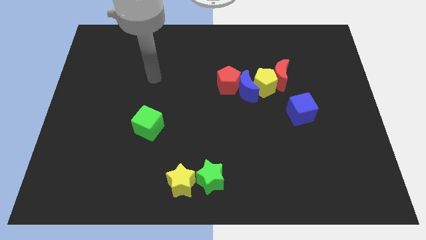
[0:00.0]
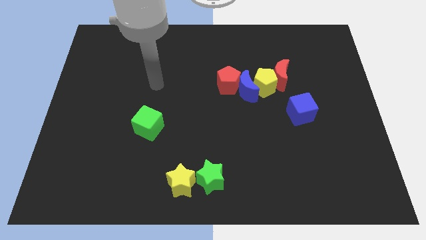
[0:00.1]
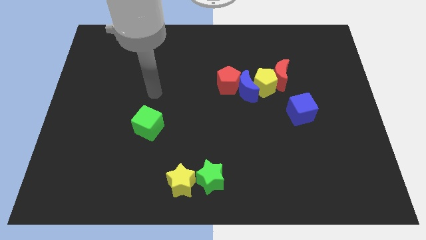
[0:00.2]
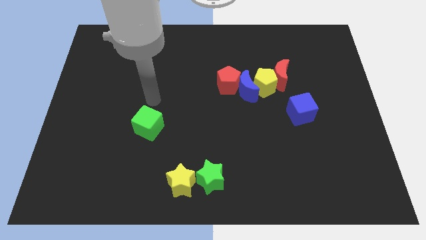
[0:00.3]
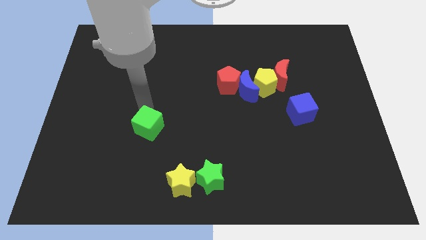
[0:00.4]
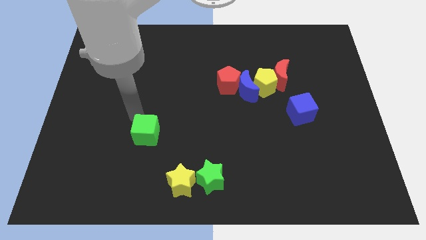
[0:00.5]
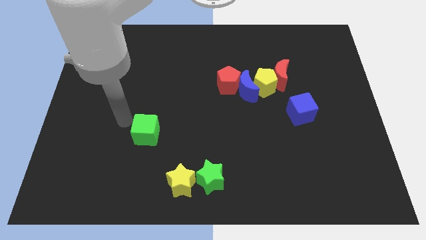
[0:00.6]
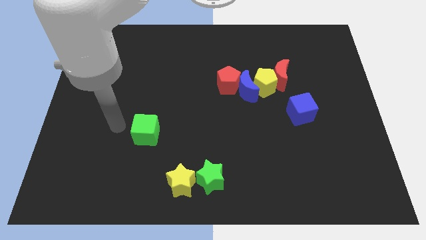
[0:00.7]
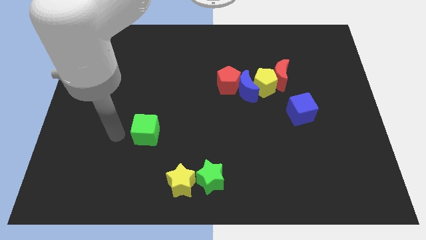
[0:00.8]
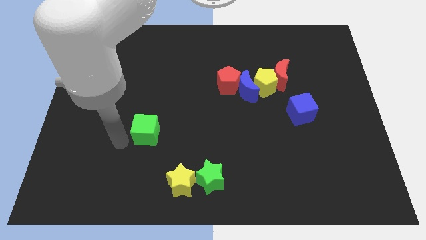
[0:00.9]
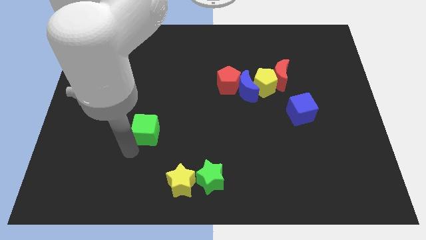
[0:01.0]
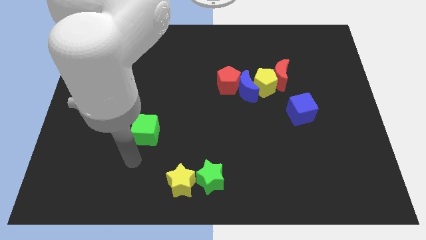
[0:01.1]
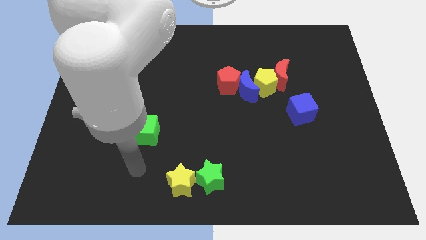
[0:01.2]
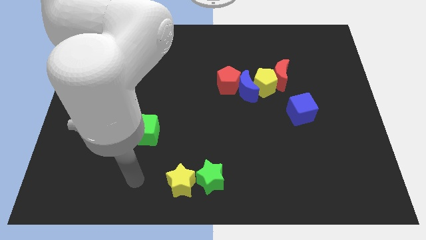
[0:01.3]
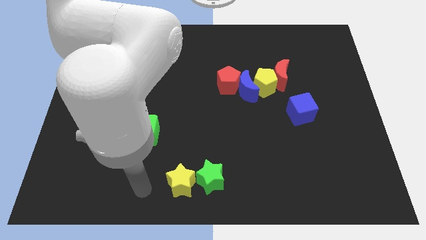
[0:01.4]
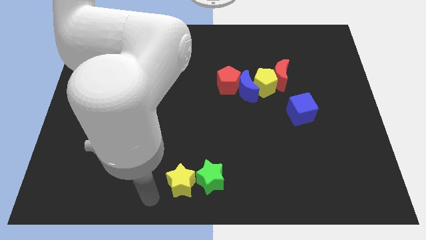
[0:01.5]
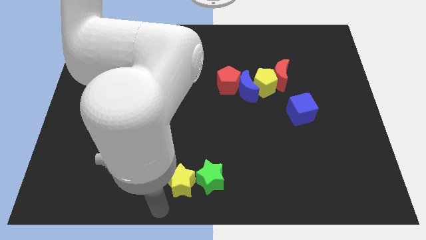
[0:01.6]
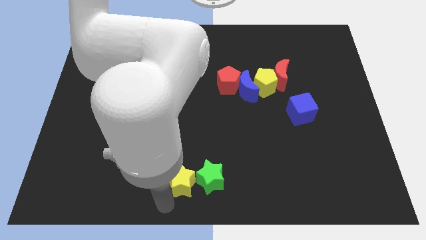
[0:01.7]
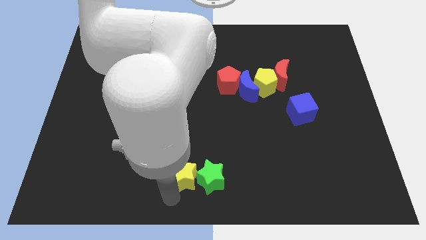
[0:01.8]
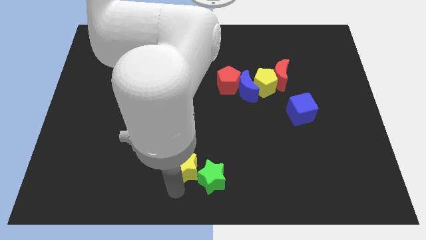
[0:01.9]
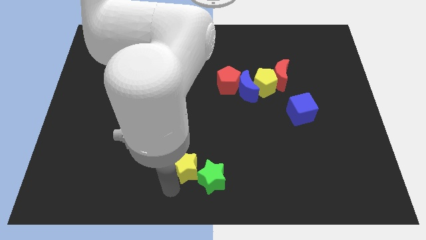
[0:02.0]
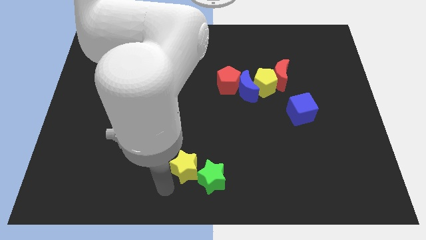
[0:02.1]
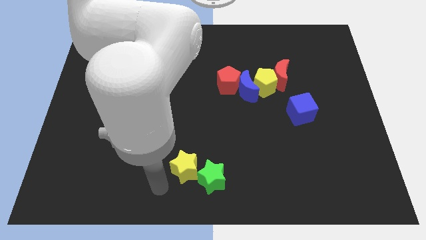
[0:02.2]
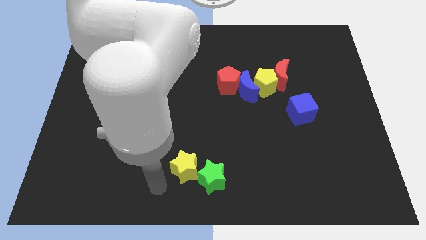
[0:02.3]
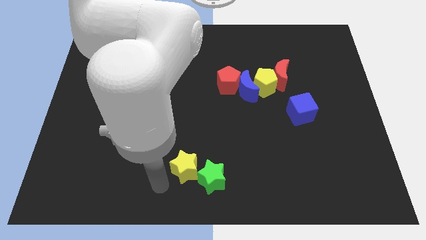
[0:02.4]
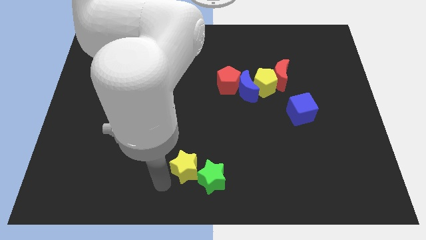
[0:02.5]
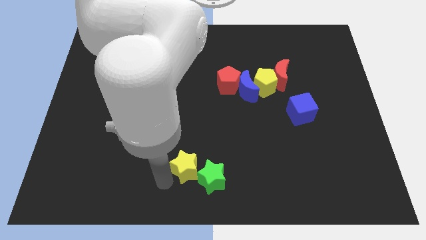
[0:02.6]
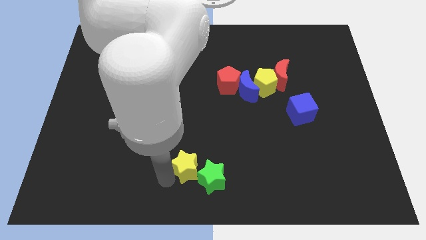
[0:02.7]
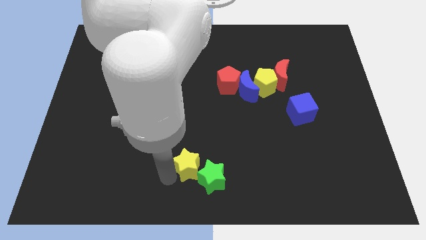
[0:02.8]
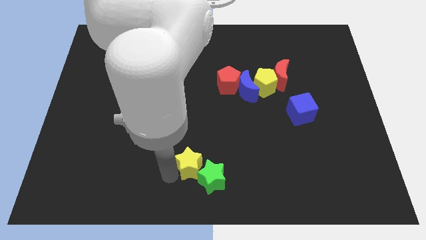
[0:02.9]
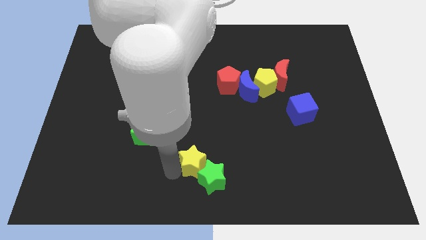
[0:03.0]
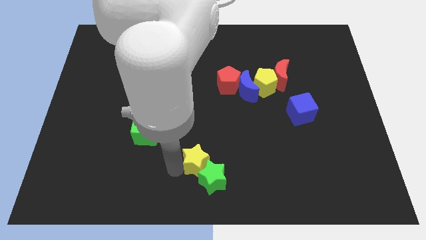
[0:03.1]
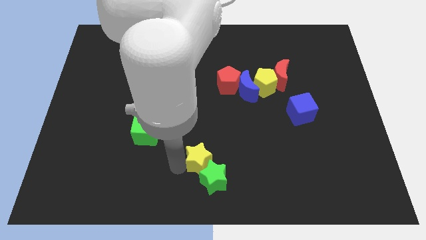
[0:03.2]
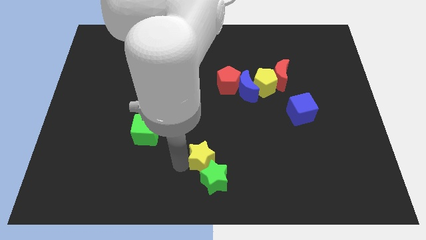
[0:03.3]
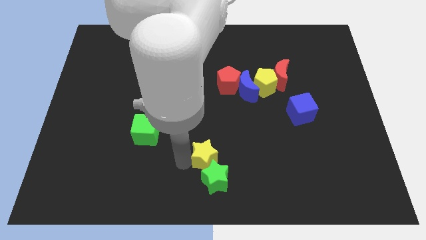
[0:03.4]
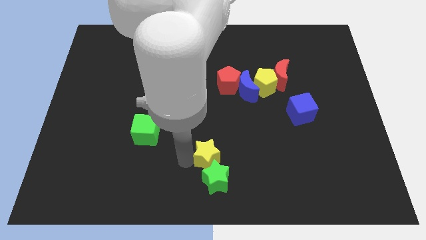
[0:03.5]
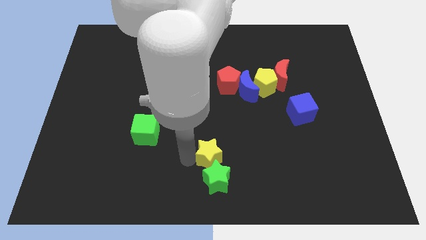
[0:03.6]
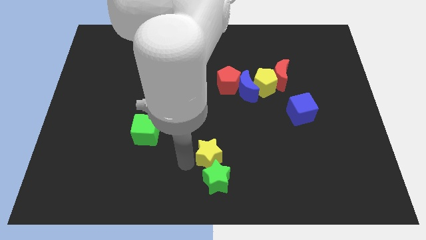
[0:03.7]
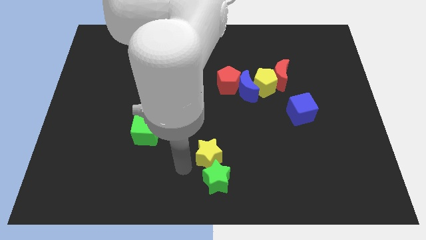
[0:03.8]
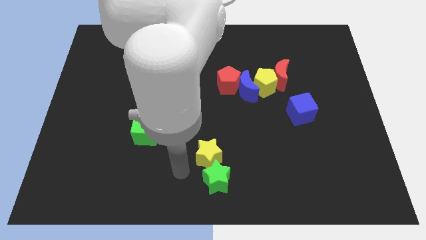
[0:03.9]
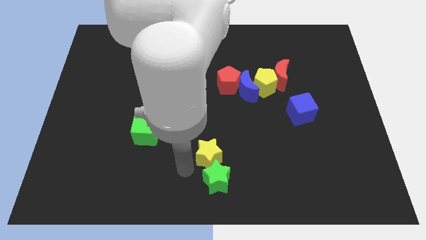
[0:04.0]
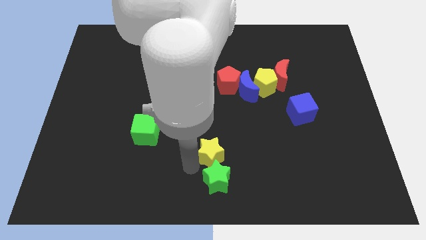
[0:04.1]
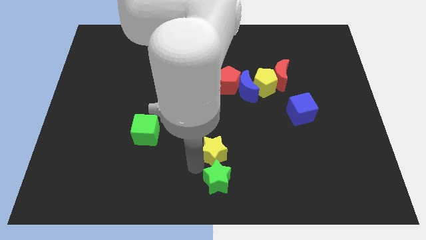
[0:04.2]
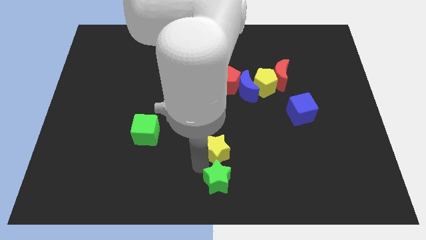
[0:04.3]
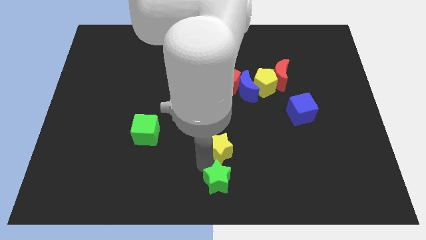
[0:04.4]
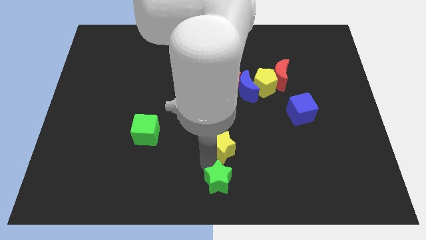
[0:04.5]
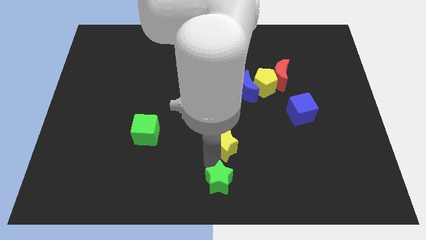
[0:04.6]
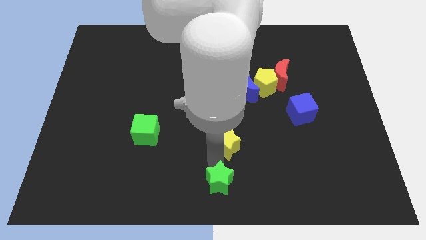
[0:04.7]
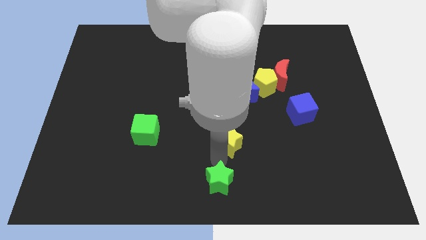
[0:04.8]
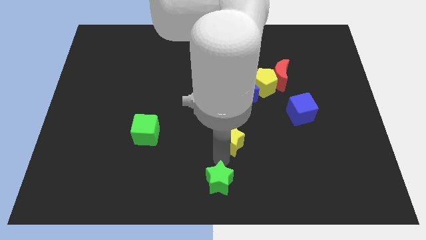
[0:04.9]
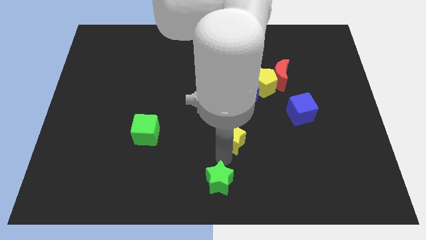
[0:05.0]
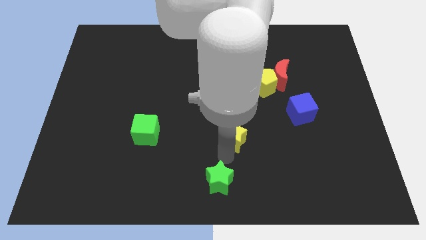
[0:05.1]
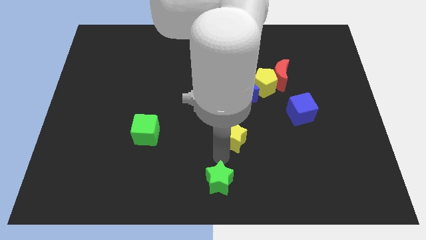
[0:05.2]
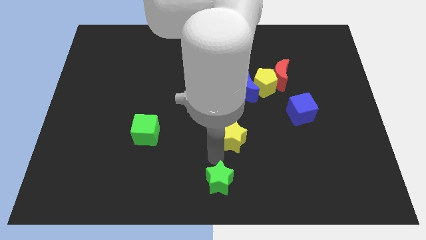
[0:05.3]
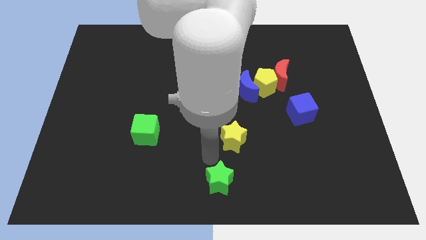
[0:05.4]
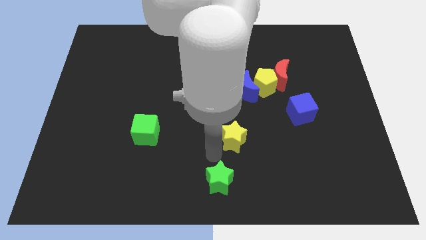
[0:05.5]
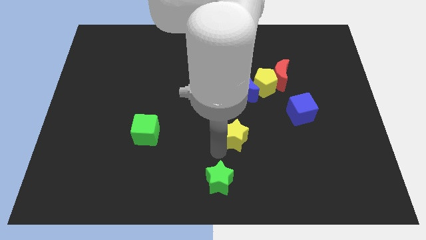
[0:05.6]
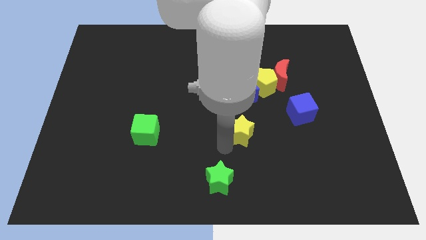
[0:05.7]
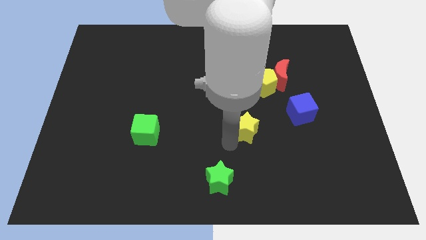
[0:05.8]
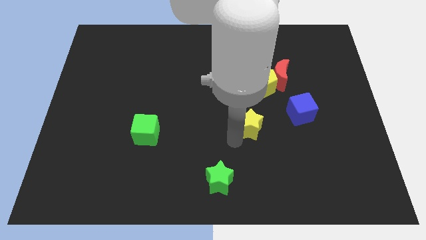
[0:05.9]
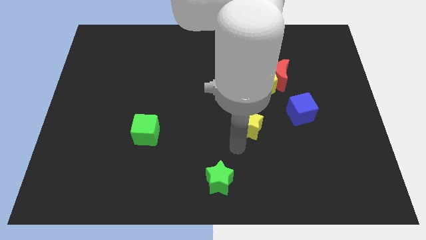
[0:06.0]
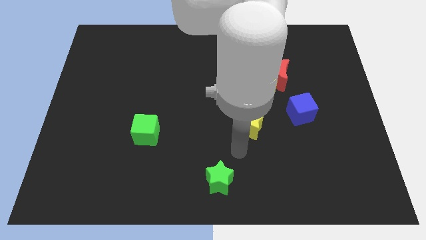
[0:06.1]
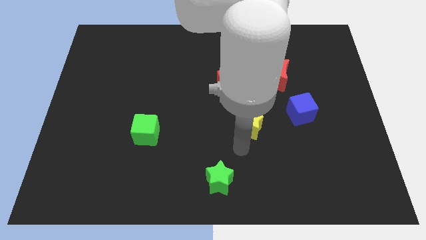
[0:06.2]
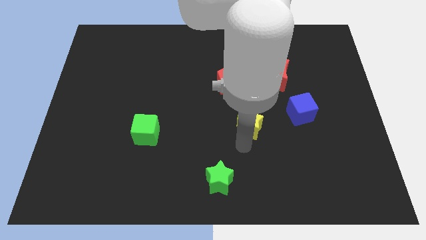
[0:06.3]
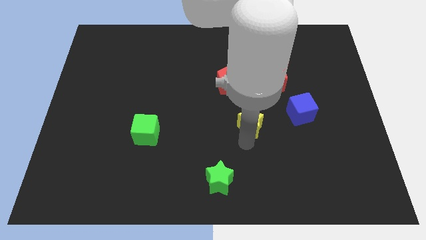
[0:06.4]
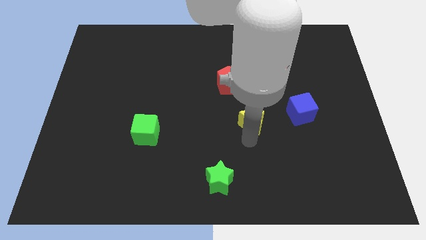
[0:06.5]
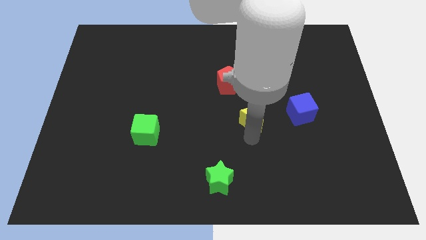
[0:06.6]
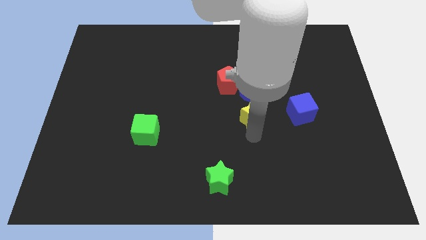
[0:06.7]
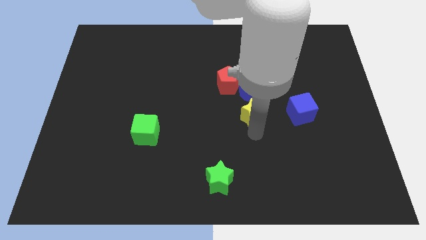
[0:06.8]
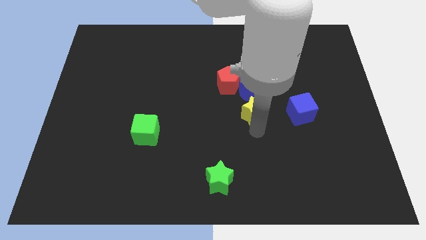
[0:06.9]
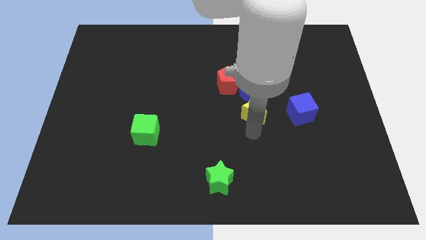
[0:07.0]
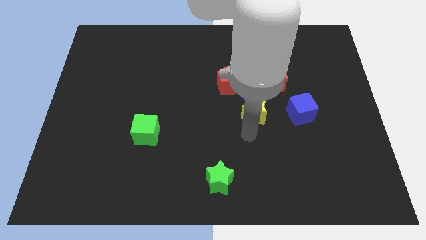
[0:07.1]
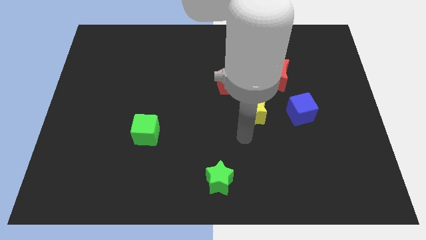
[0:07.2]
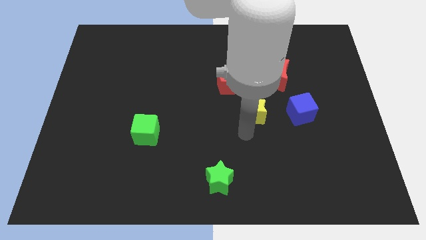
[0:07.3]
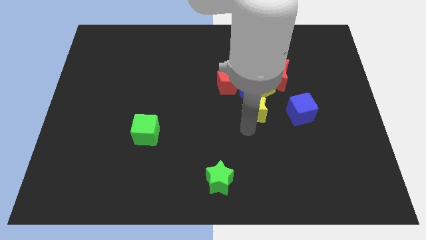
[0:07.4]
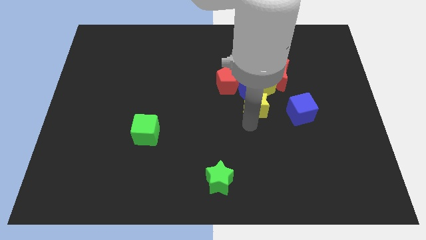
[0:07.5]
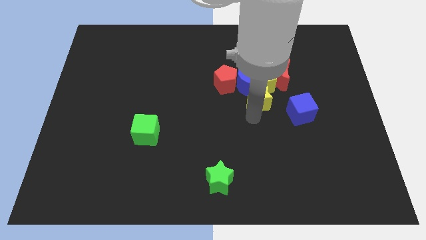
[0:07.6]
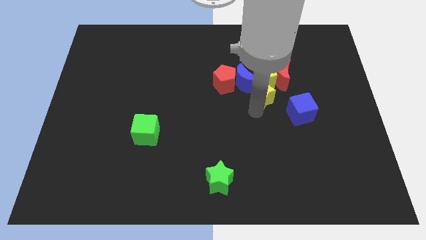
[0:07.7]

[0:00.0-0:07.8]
slide the yellow star towards the yellow pentagon
